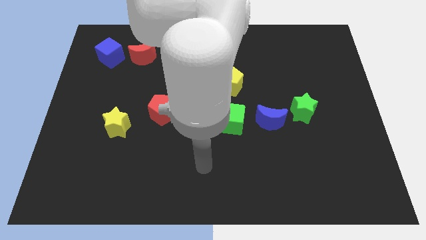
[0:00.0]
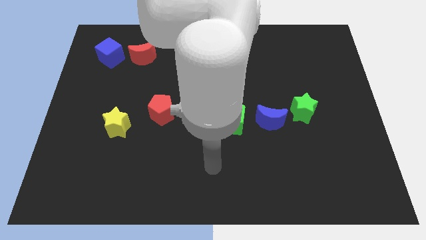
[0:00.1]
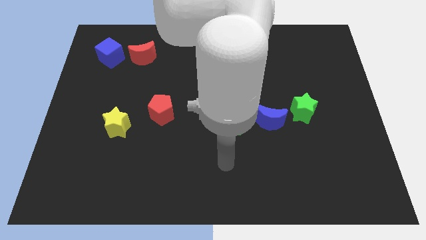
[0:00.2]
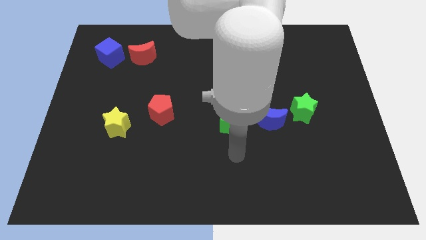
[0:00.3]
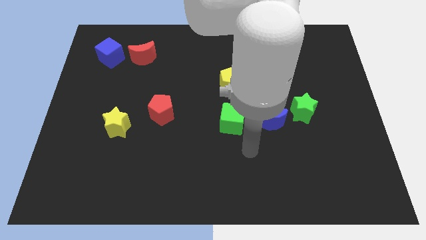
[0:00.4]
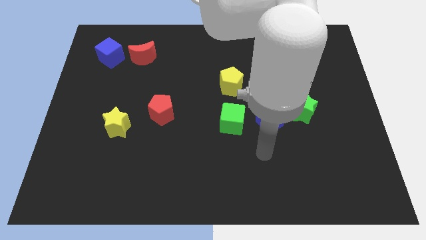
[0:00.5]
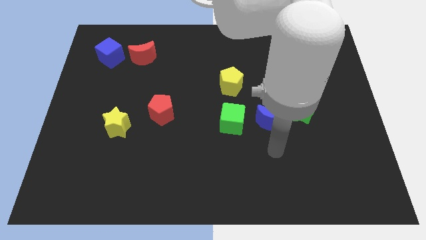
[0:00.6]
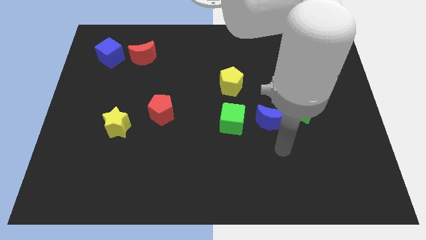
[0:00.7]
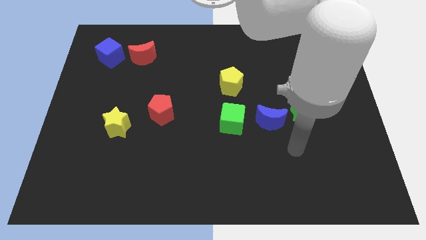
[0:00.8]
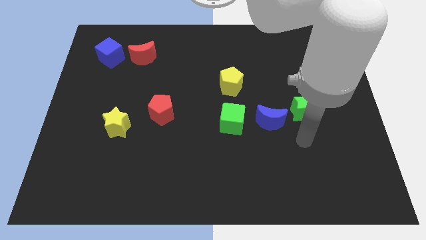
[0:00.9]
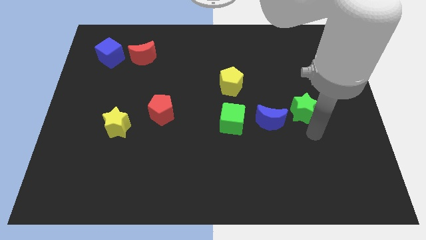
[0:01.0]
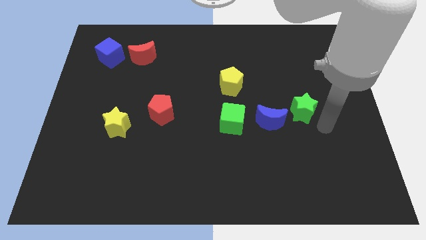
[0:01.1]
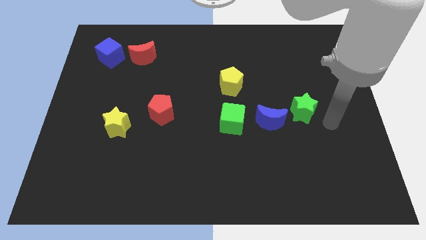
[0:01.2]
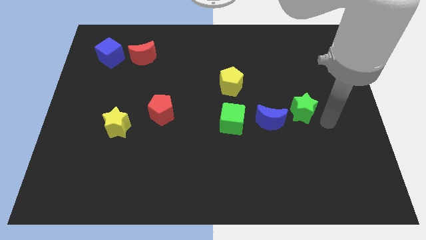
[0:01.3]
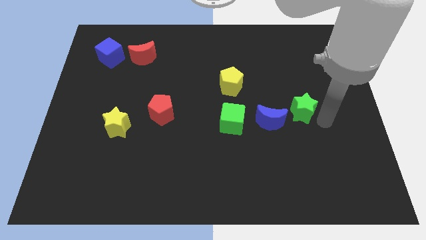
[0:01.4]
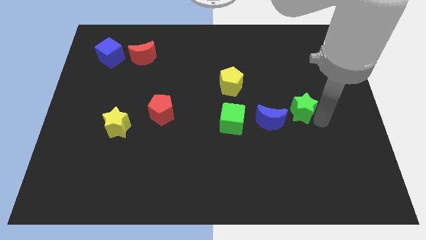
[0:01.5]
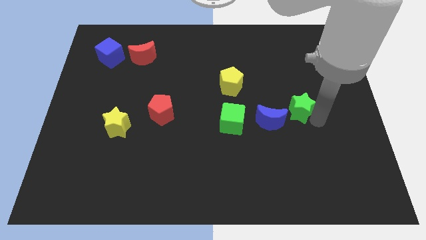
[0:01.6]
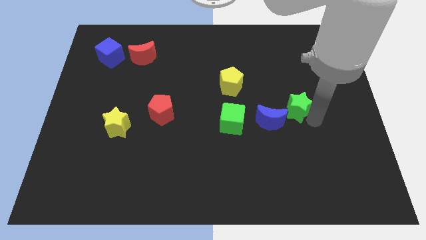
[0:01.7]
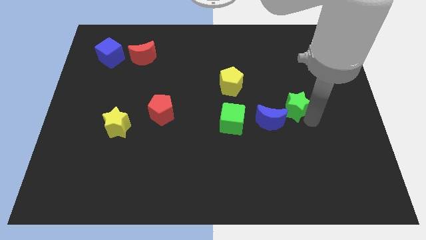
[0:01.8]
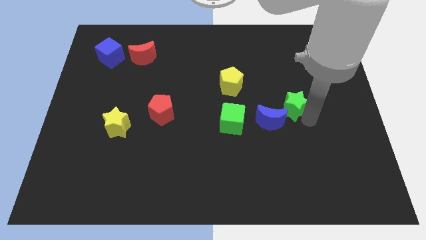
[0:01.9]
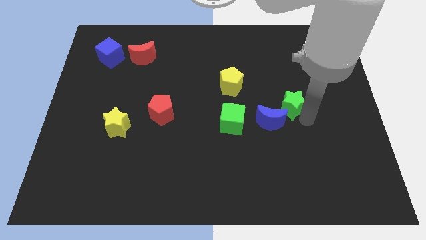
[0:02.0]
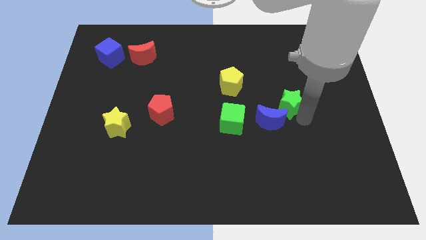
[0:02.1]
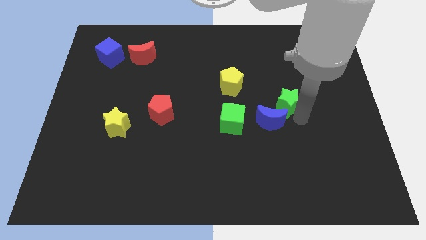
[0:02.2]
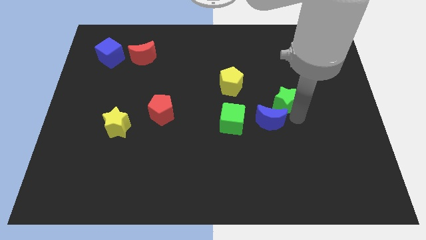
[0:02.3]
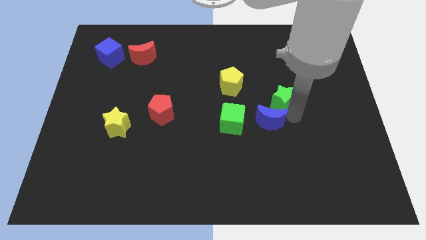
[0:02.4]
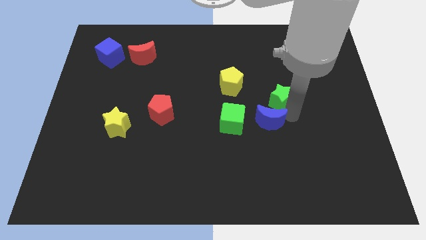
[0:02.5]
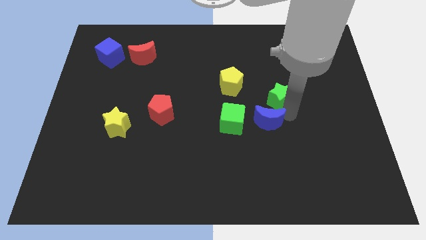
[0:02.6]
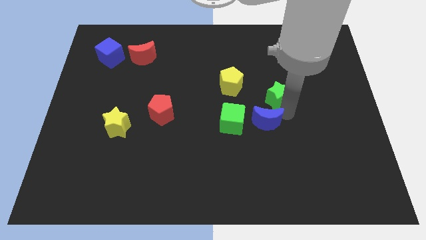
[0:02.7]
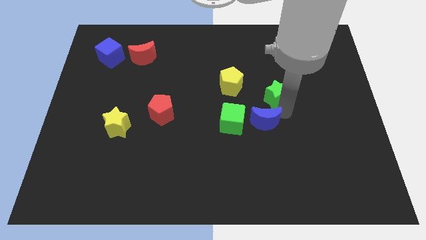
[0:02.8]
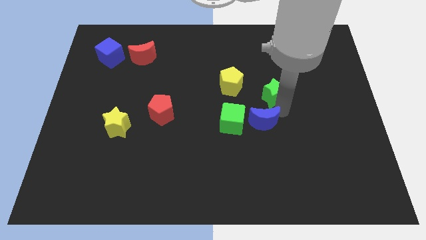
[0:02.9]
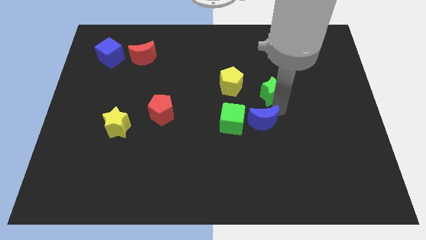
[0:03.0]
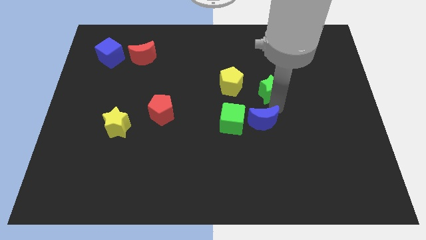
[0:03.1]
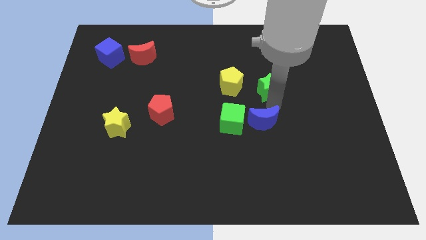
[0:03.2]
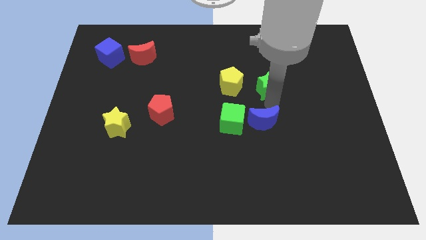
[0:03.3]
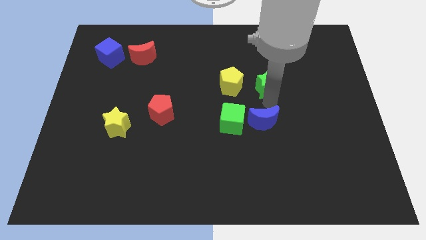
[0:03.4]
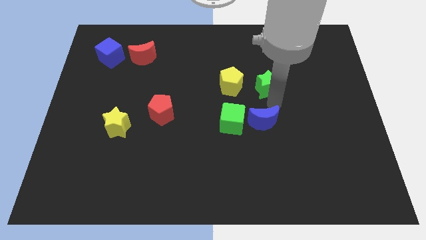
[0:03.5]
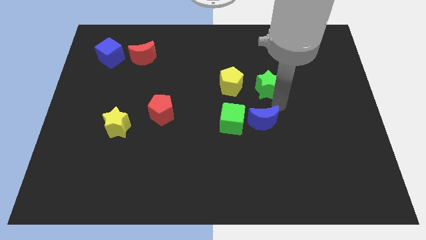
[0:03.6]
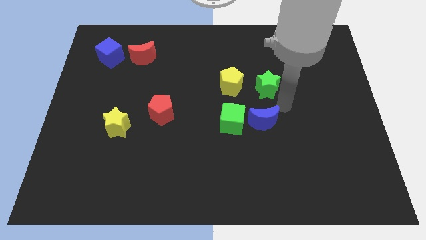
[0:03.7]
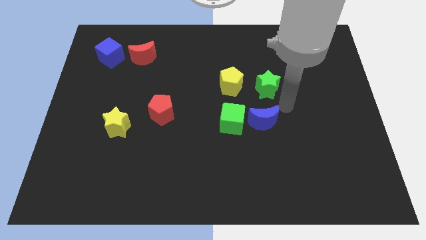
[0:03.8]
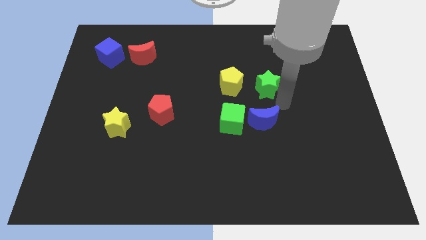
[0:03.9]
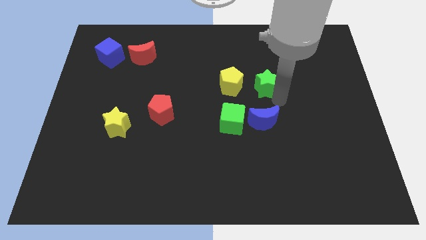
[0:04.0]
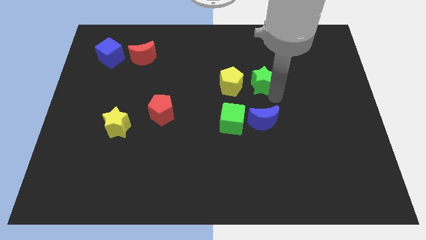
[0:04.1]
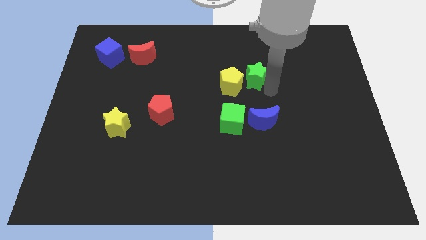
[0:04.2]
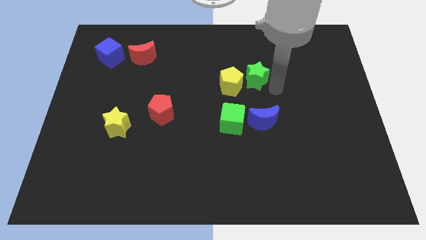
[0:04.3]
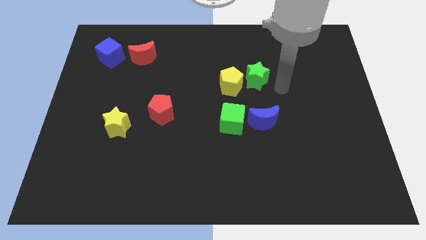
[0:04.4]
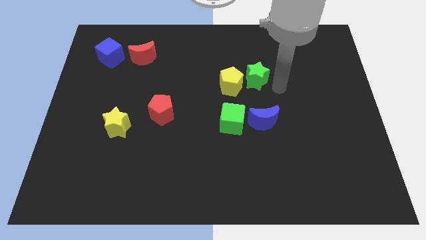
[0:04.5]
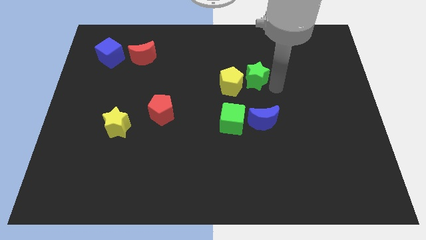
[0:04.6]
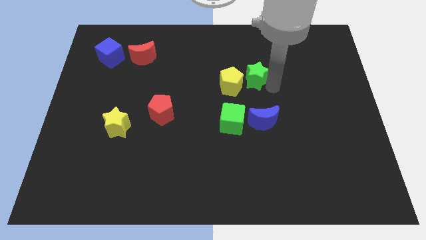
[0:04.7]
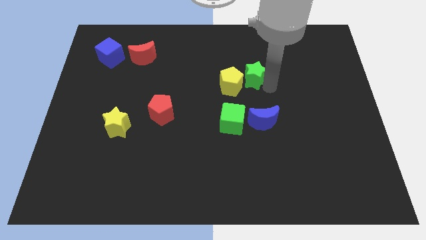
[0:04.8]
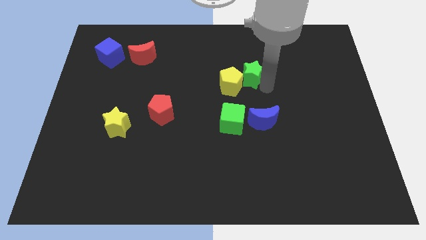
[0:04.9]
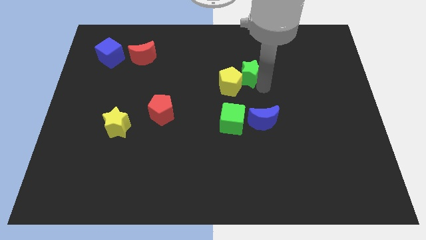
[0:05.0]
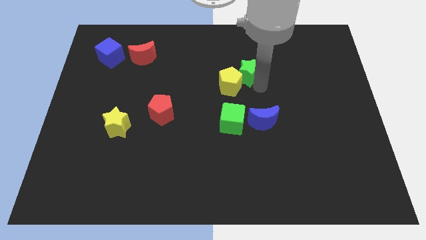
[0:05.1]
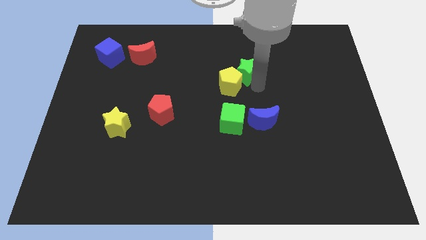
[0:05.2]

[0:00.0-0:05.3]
move the green star above the green cube

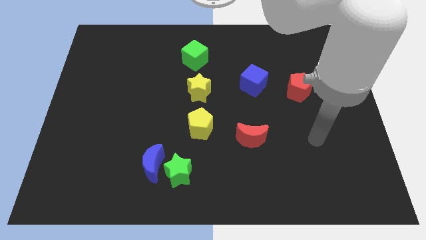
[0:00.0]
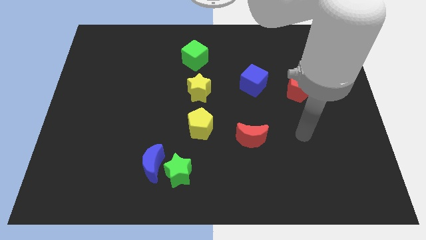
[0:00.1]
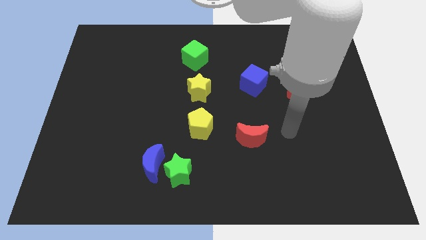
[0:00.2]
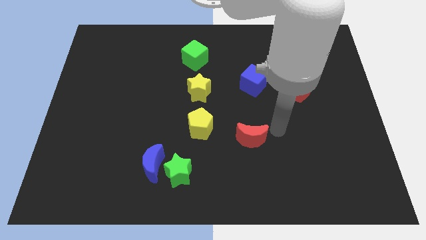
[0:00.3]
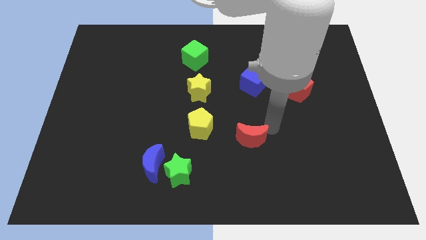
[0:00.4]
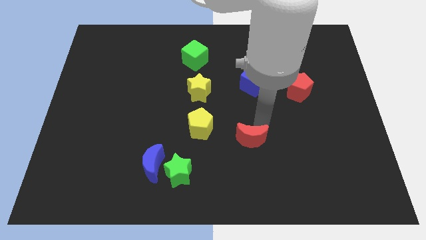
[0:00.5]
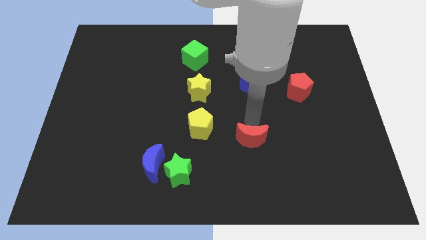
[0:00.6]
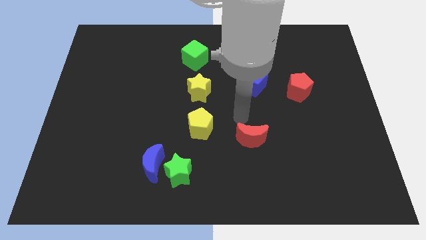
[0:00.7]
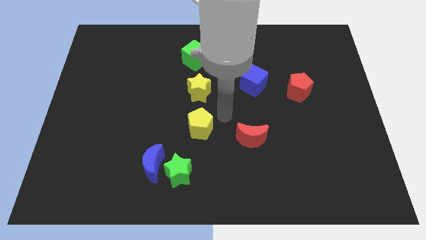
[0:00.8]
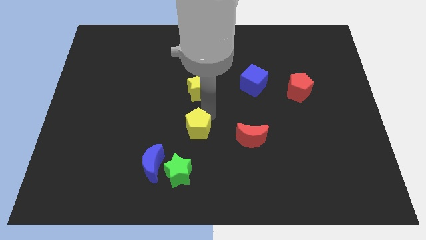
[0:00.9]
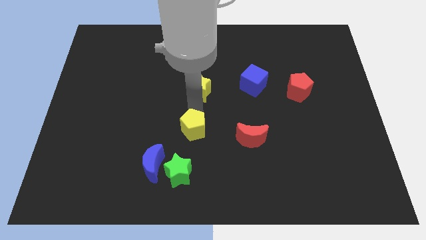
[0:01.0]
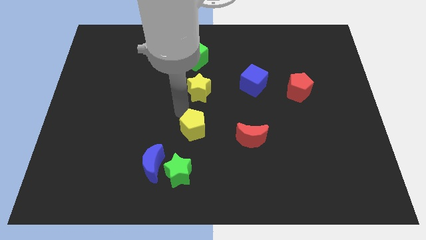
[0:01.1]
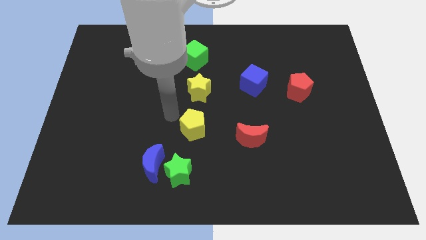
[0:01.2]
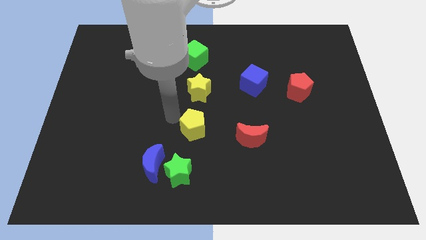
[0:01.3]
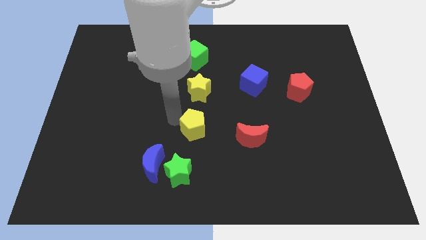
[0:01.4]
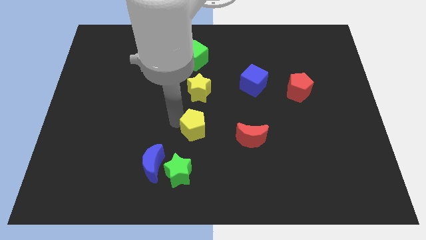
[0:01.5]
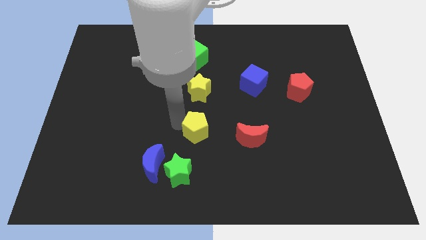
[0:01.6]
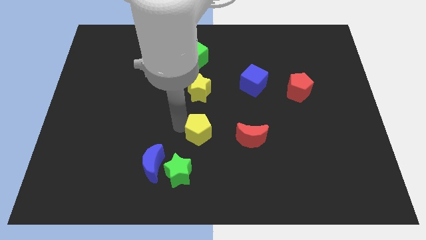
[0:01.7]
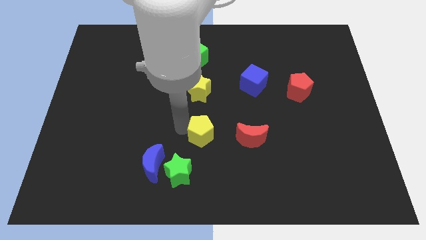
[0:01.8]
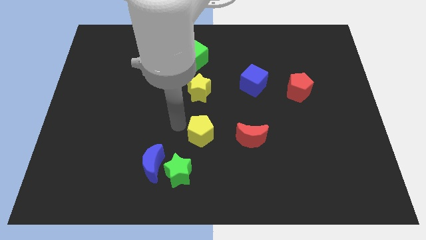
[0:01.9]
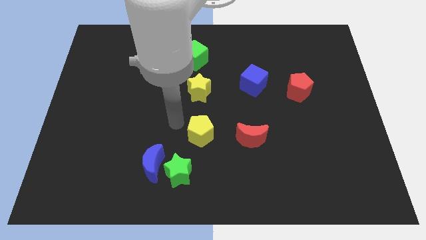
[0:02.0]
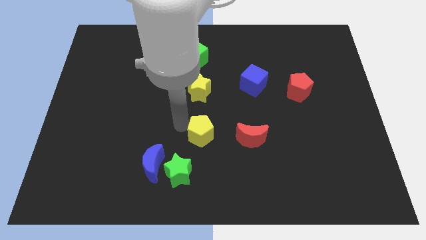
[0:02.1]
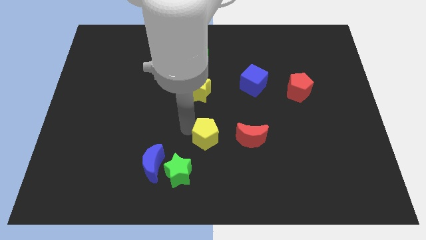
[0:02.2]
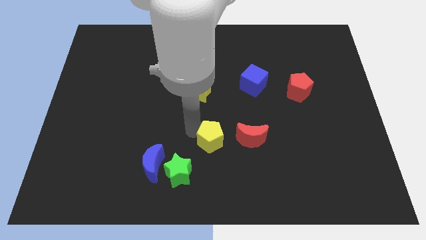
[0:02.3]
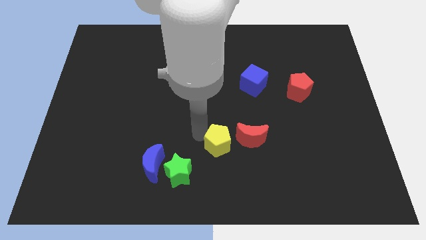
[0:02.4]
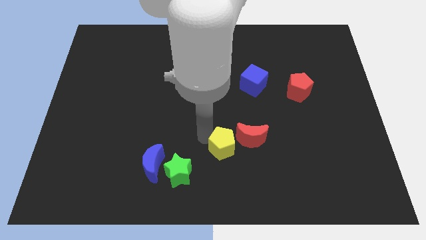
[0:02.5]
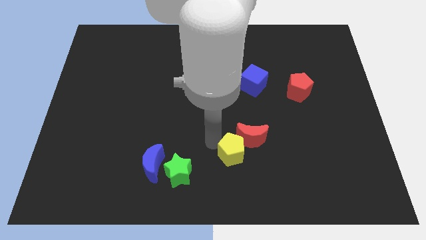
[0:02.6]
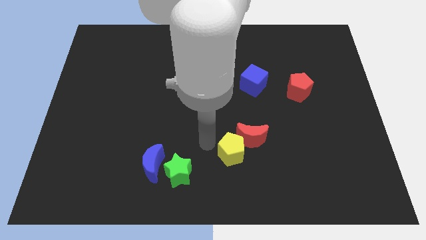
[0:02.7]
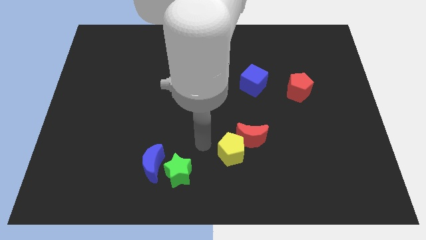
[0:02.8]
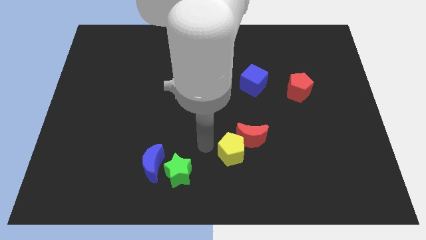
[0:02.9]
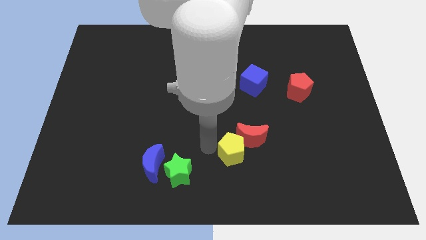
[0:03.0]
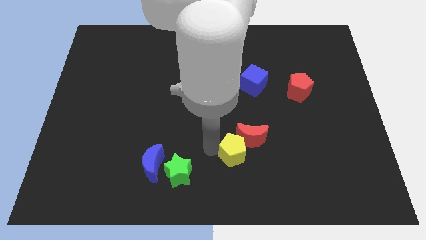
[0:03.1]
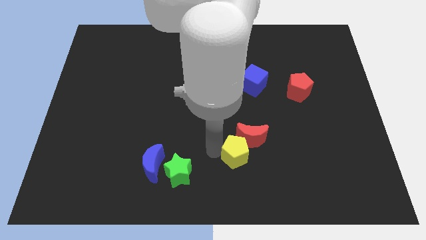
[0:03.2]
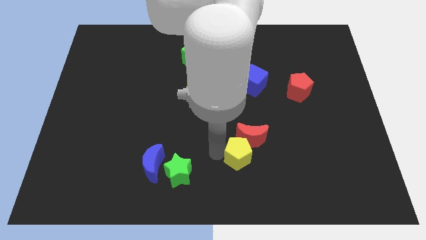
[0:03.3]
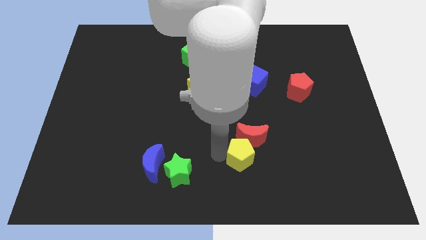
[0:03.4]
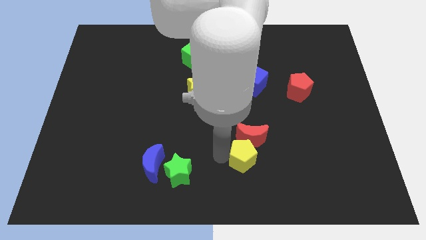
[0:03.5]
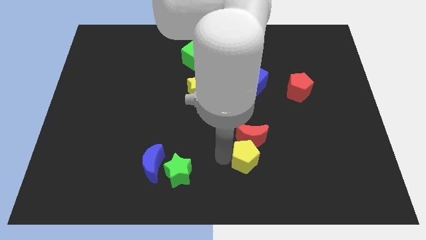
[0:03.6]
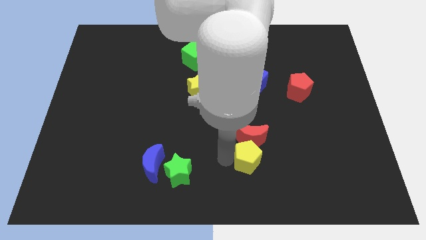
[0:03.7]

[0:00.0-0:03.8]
slide the yellow pentagon to the bottom right side of the red moon
